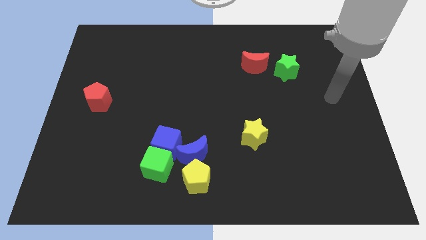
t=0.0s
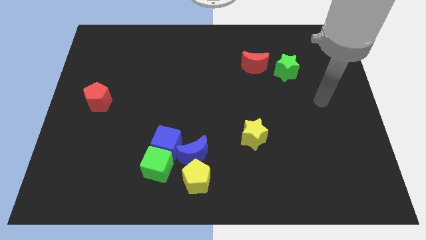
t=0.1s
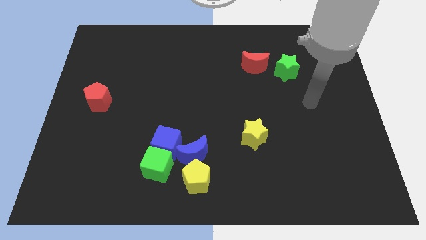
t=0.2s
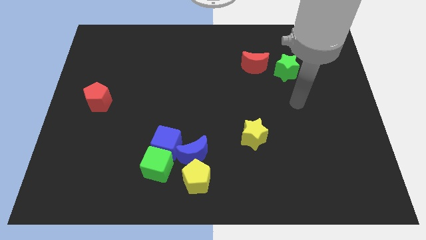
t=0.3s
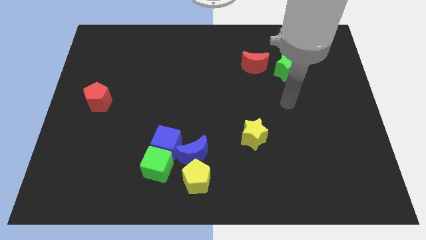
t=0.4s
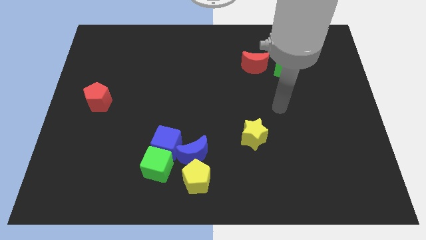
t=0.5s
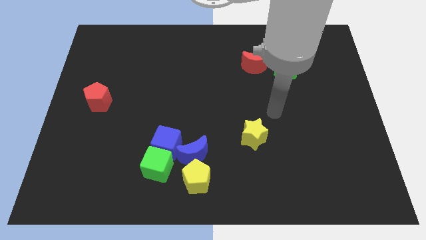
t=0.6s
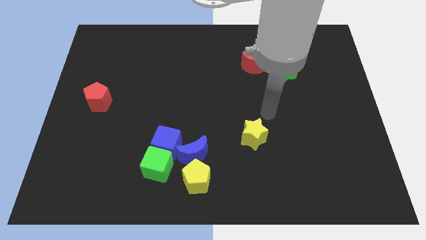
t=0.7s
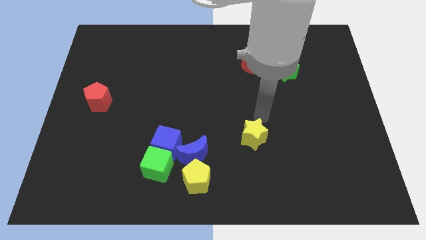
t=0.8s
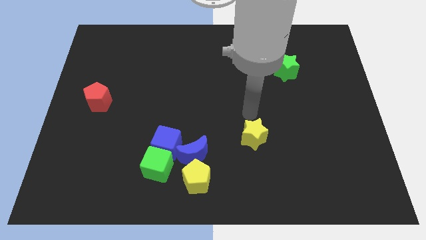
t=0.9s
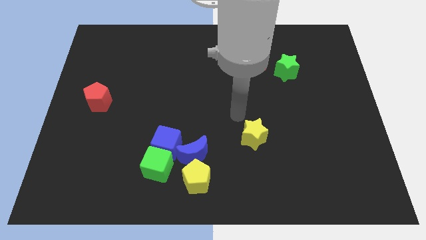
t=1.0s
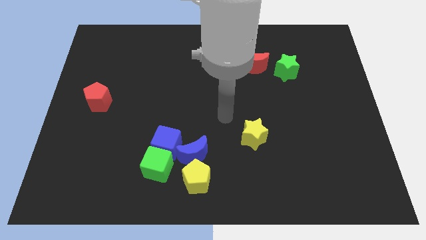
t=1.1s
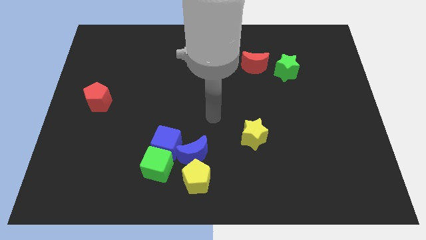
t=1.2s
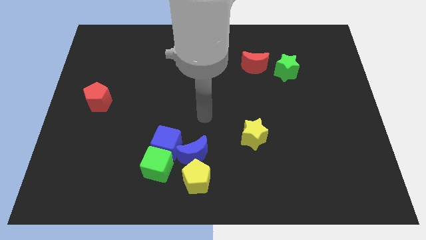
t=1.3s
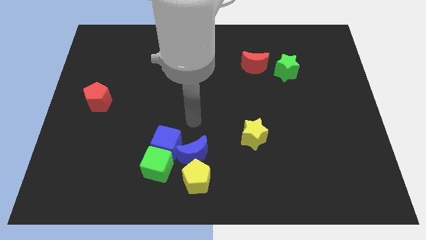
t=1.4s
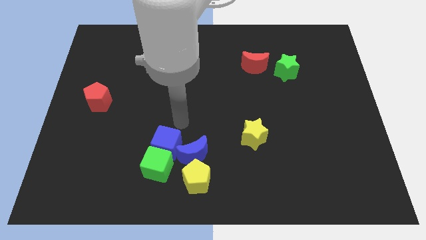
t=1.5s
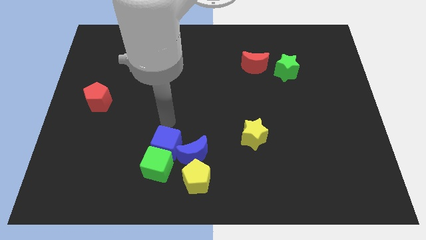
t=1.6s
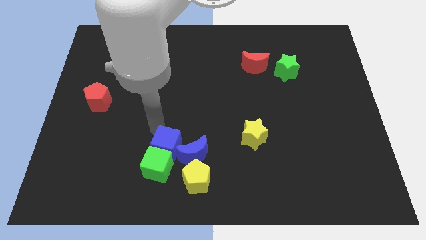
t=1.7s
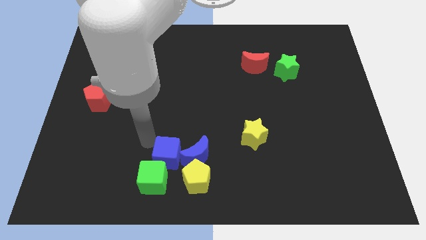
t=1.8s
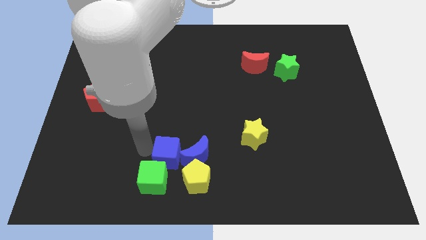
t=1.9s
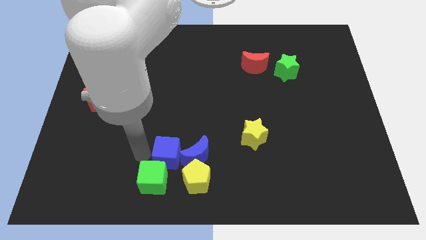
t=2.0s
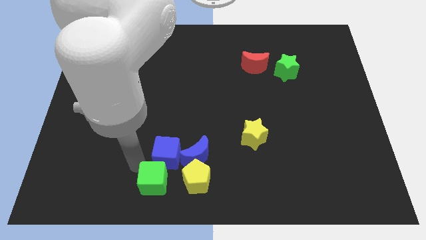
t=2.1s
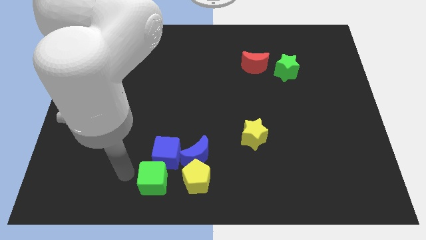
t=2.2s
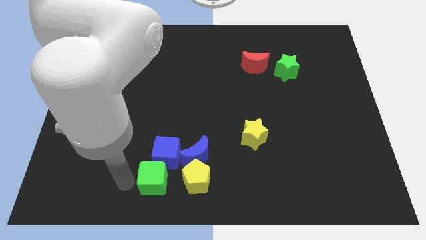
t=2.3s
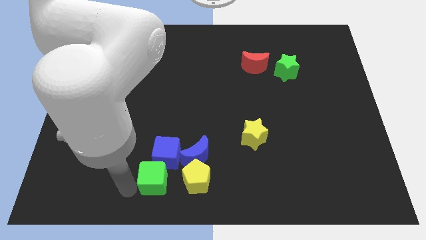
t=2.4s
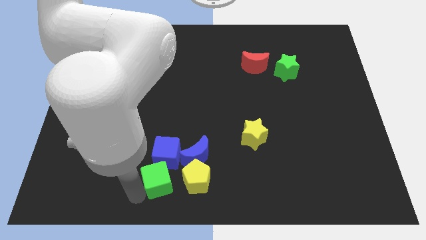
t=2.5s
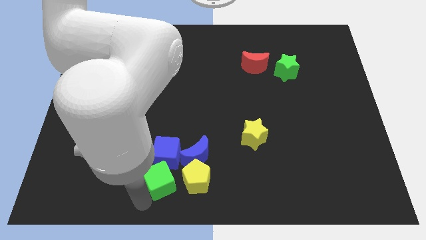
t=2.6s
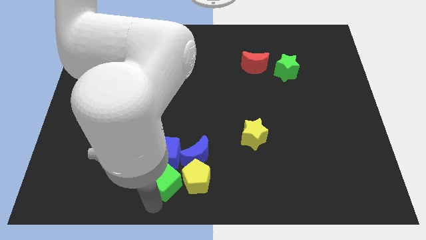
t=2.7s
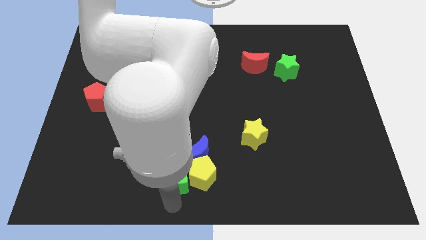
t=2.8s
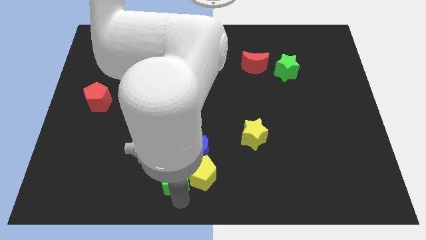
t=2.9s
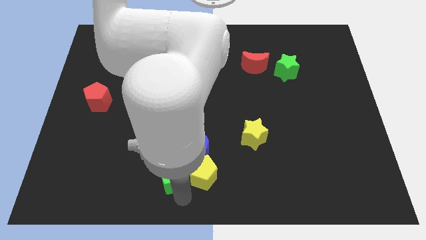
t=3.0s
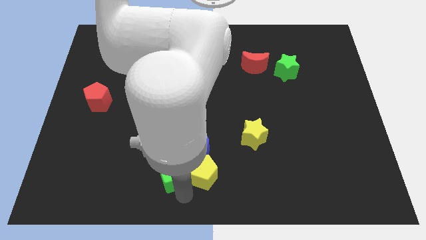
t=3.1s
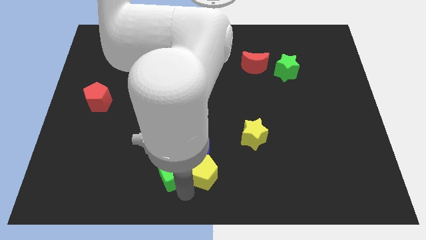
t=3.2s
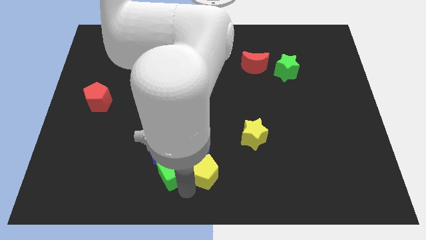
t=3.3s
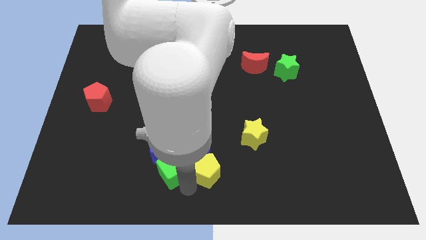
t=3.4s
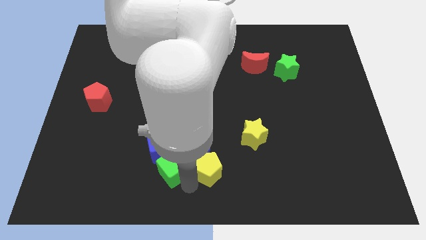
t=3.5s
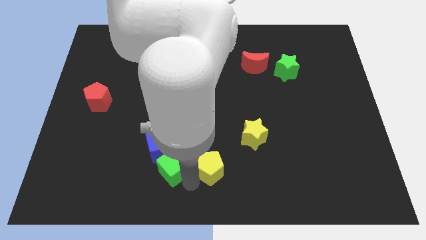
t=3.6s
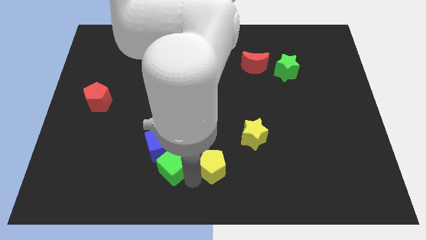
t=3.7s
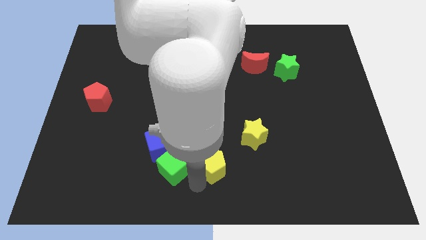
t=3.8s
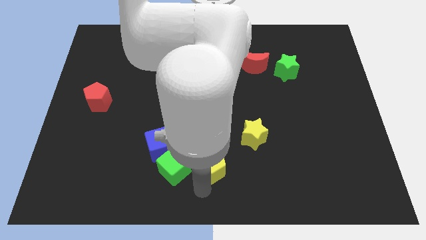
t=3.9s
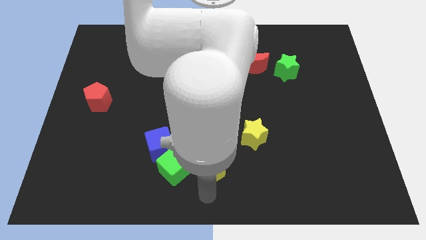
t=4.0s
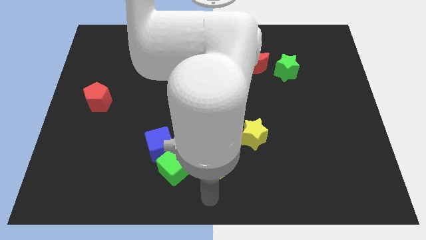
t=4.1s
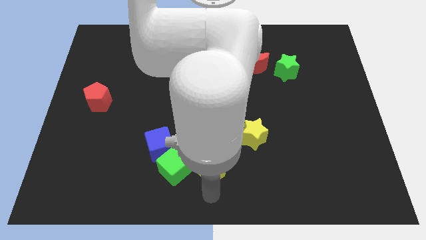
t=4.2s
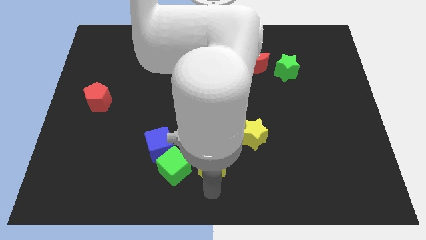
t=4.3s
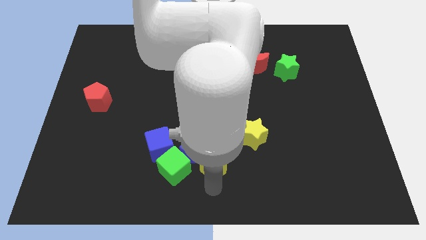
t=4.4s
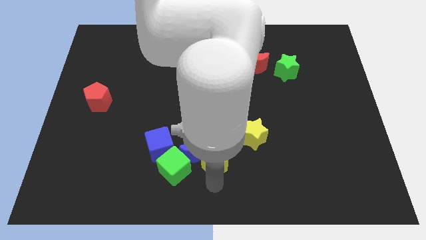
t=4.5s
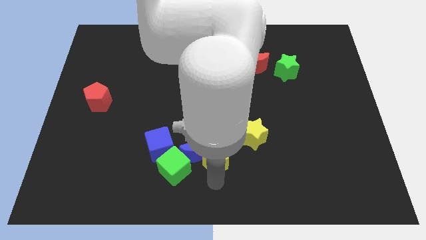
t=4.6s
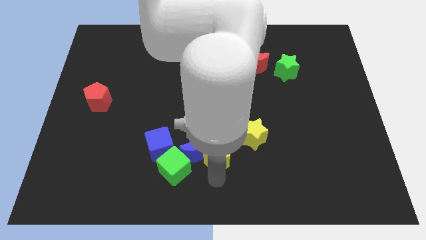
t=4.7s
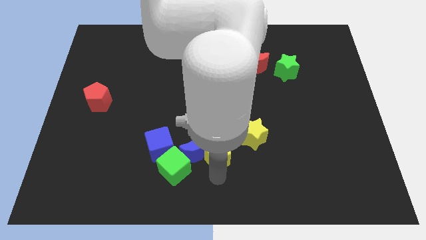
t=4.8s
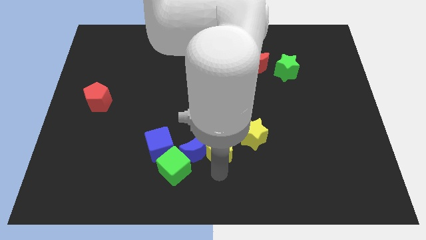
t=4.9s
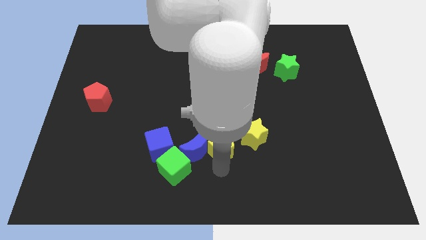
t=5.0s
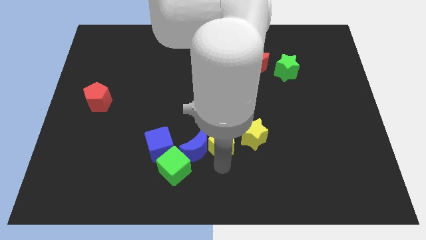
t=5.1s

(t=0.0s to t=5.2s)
put the yellow pentagon to the middle

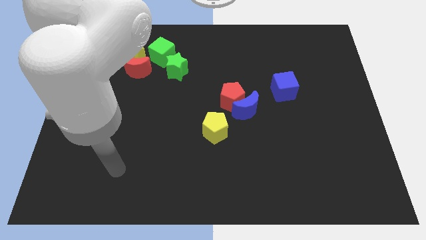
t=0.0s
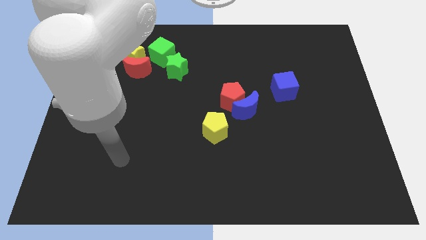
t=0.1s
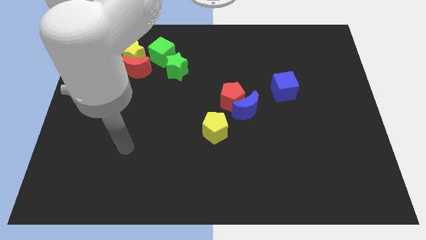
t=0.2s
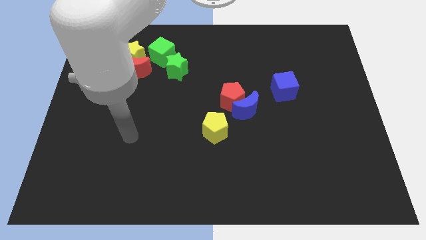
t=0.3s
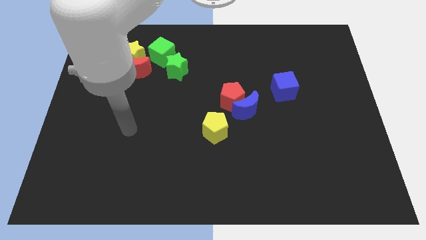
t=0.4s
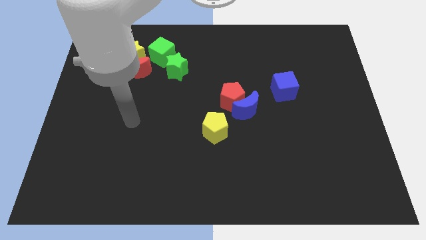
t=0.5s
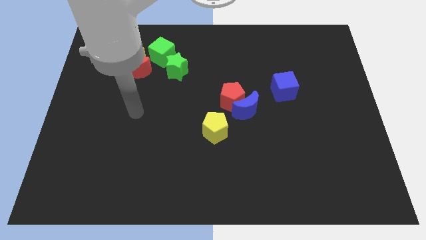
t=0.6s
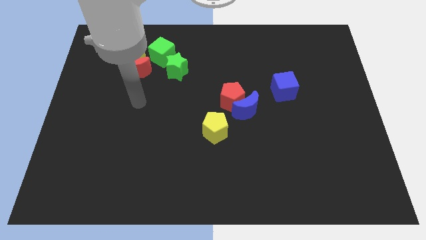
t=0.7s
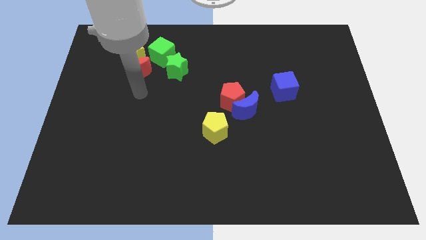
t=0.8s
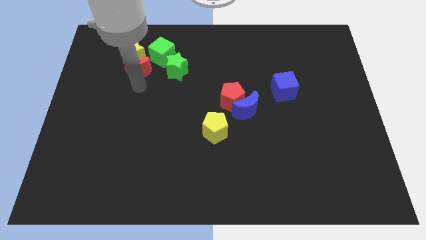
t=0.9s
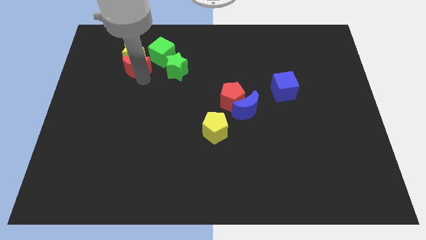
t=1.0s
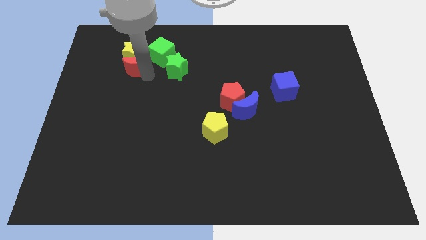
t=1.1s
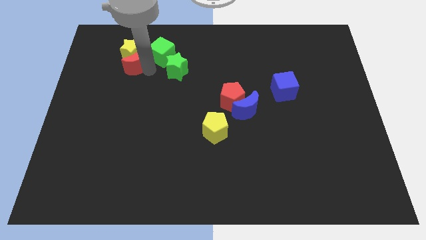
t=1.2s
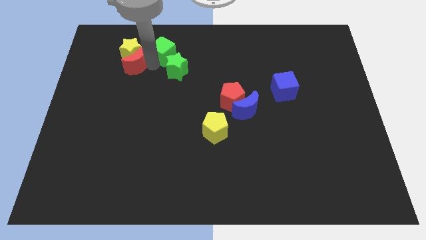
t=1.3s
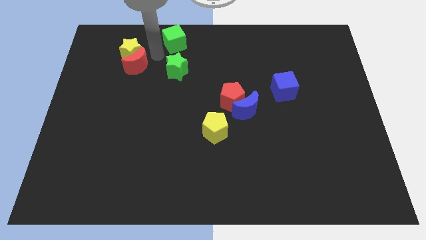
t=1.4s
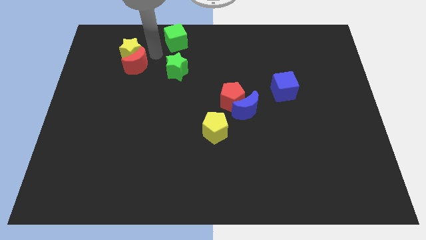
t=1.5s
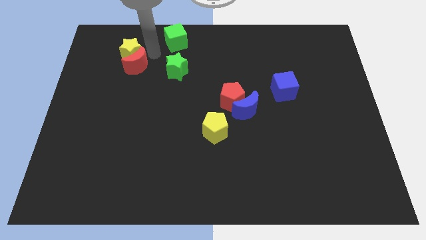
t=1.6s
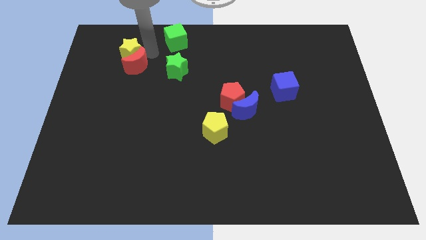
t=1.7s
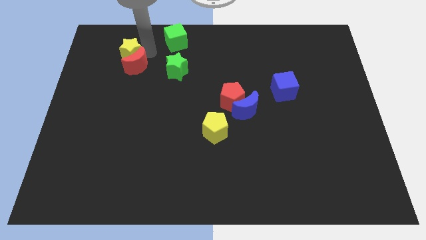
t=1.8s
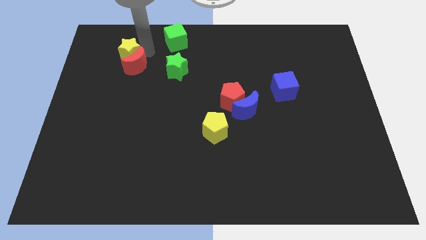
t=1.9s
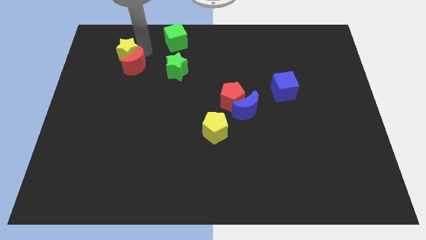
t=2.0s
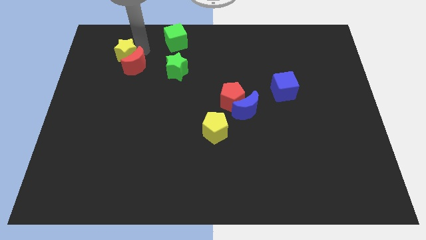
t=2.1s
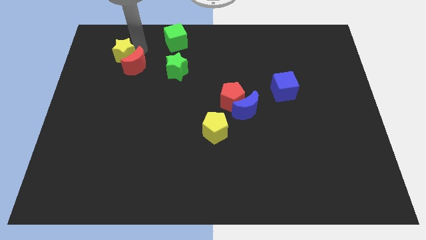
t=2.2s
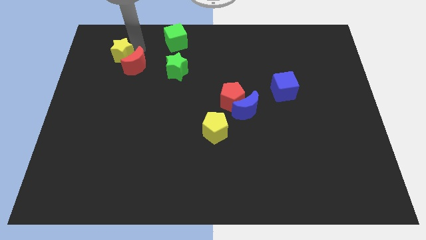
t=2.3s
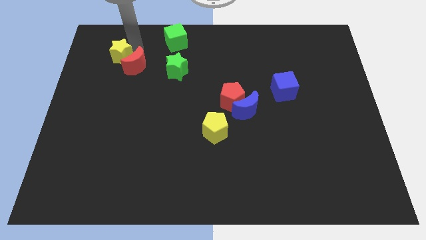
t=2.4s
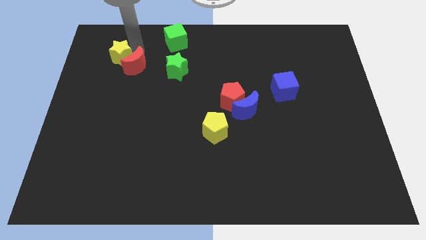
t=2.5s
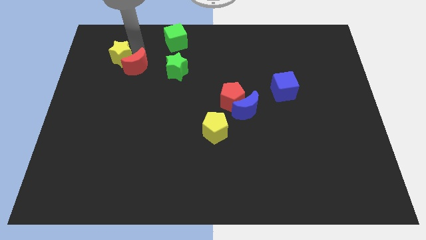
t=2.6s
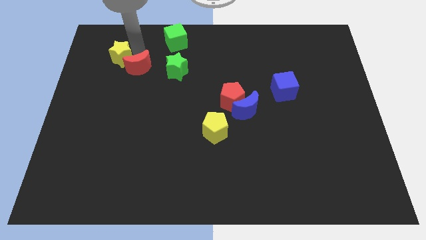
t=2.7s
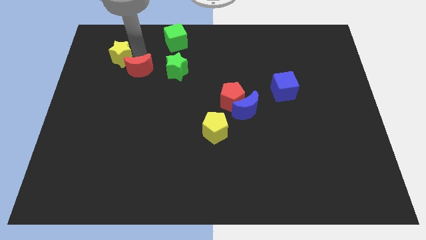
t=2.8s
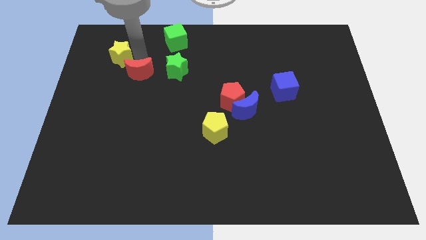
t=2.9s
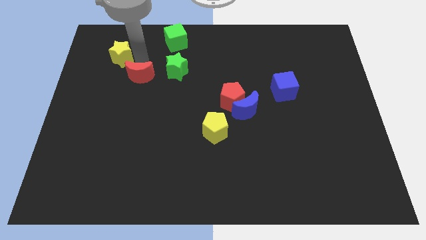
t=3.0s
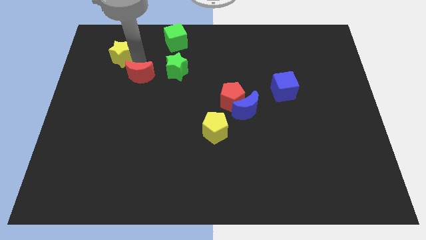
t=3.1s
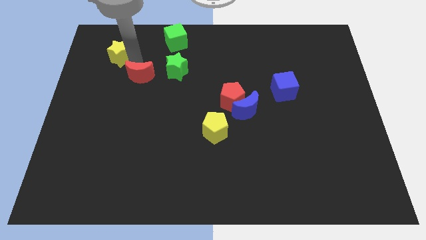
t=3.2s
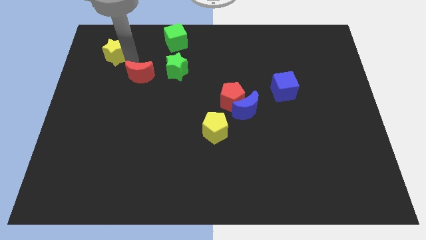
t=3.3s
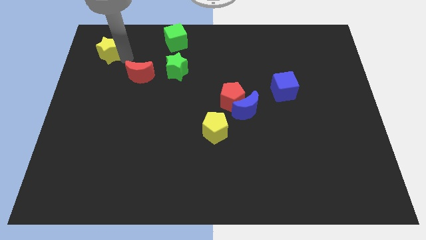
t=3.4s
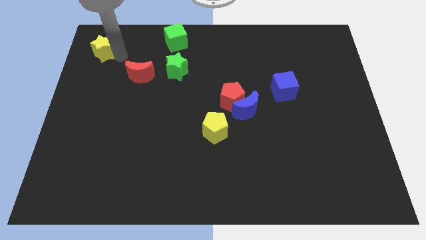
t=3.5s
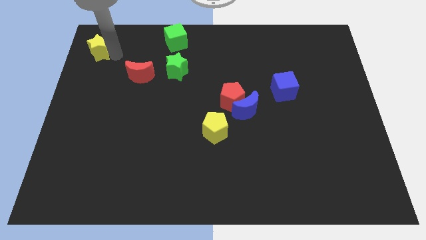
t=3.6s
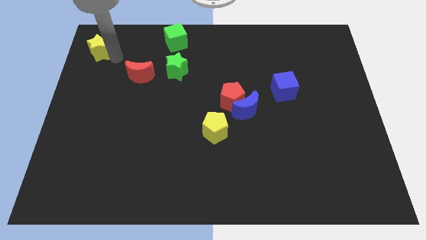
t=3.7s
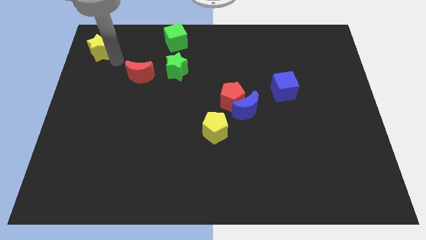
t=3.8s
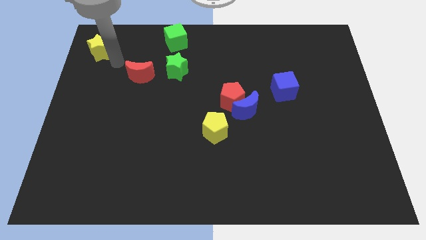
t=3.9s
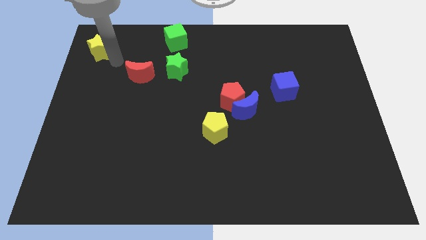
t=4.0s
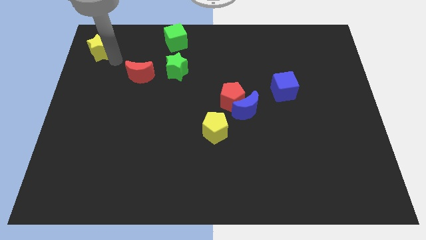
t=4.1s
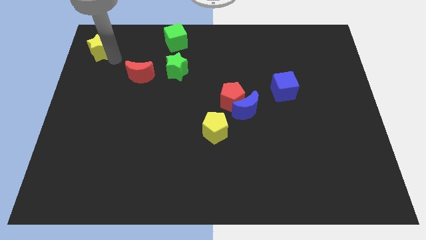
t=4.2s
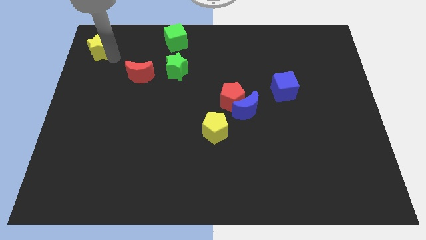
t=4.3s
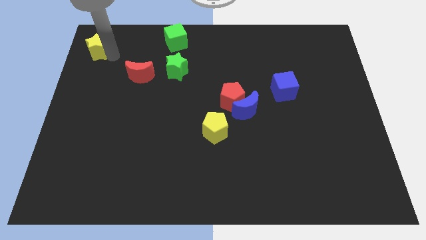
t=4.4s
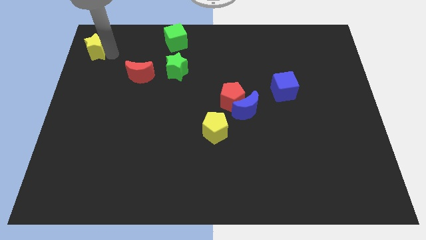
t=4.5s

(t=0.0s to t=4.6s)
move the yellow star to the upper left corner
